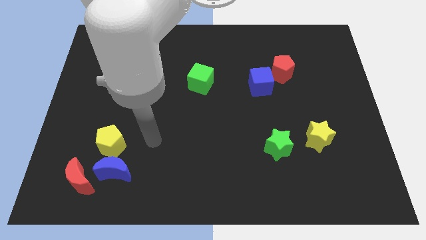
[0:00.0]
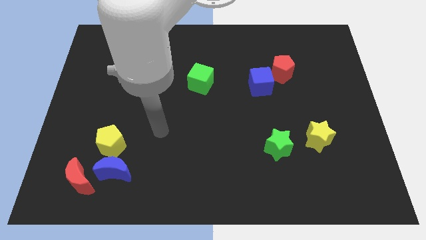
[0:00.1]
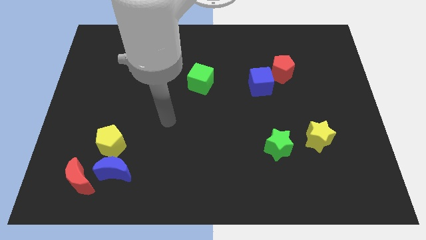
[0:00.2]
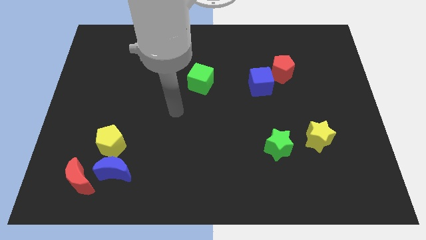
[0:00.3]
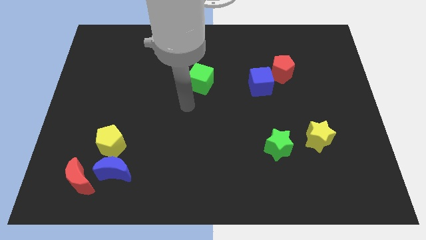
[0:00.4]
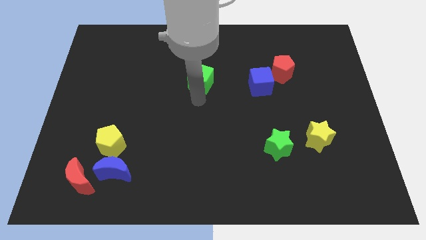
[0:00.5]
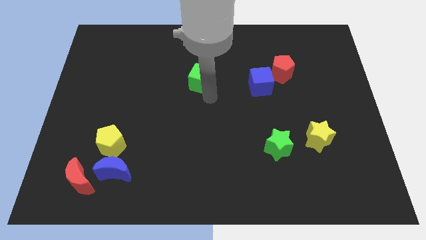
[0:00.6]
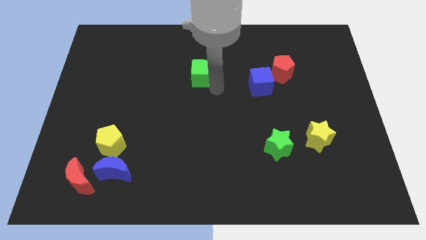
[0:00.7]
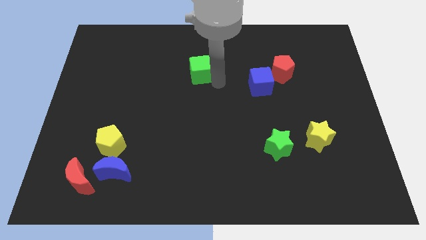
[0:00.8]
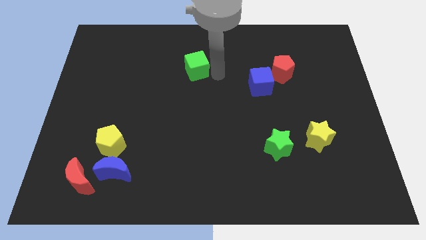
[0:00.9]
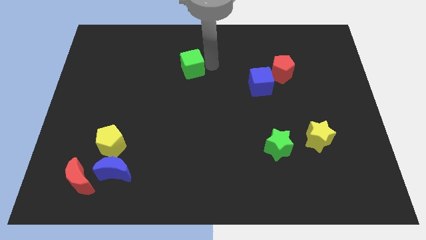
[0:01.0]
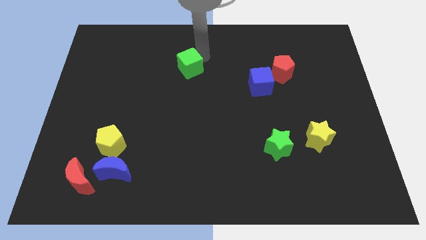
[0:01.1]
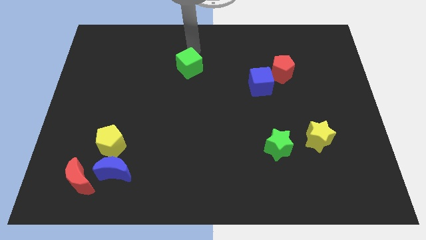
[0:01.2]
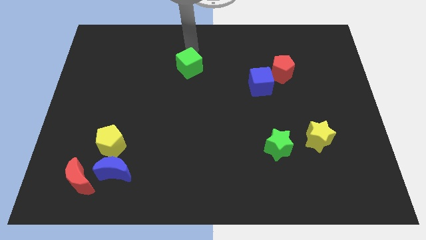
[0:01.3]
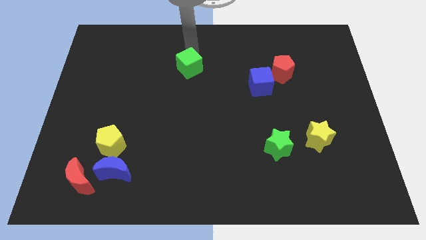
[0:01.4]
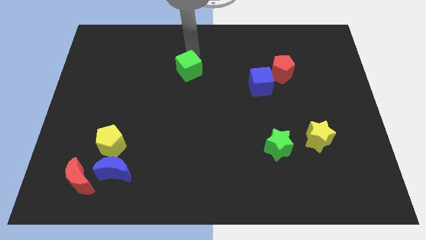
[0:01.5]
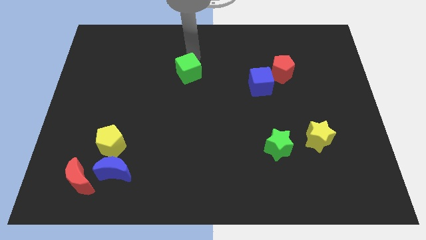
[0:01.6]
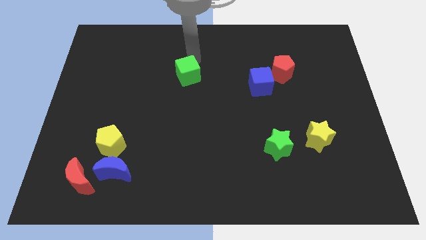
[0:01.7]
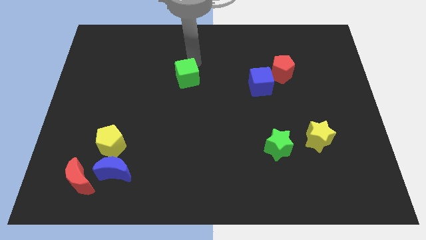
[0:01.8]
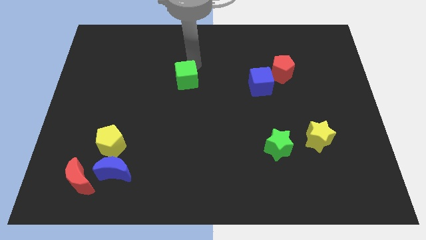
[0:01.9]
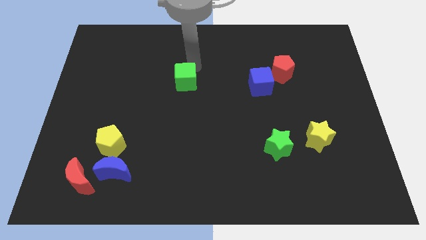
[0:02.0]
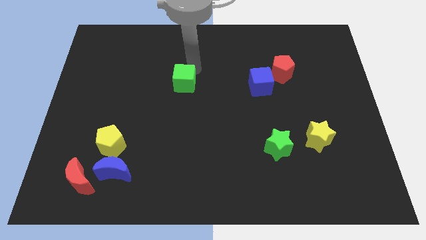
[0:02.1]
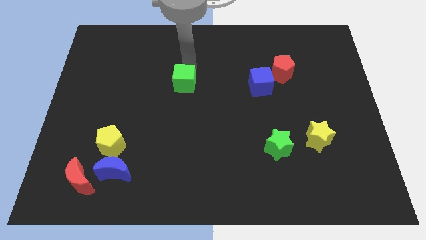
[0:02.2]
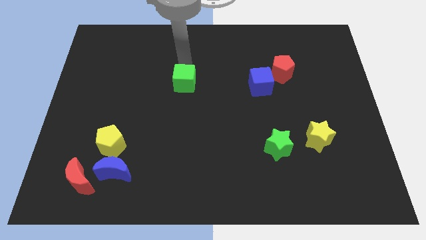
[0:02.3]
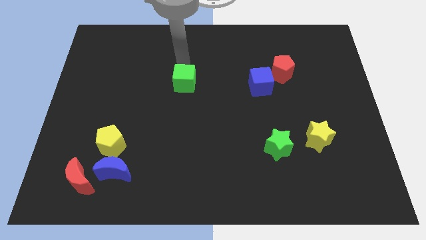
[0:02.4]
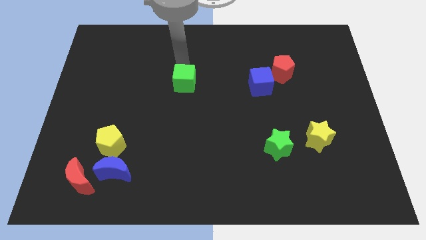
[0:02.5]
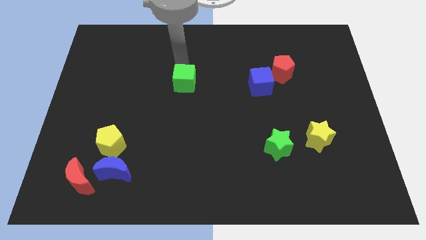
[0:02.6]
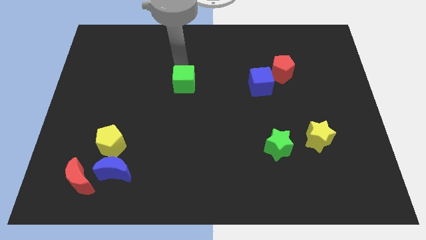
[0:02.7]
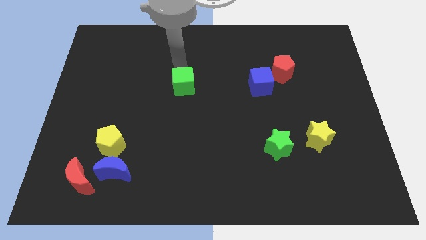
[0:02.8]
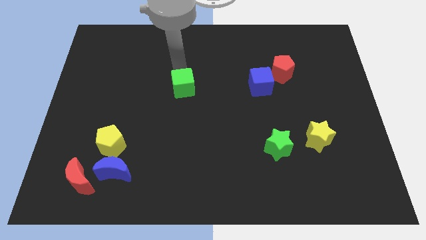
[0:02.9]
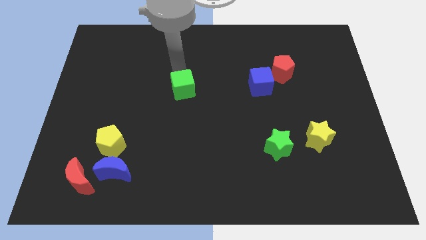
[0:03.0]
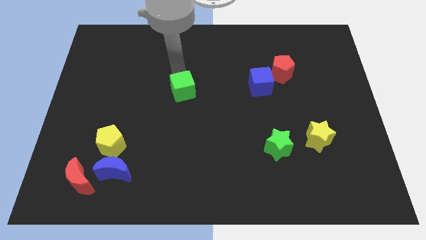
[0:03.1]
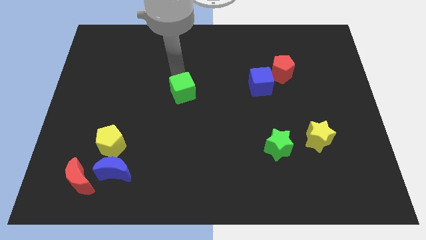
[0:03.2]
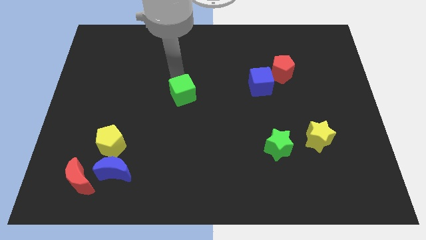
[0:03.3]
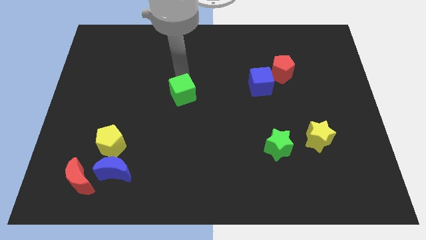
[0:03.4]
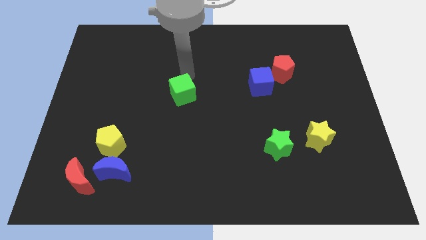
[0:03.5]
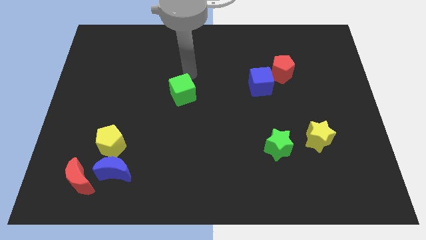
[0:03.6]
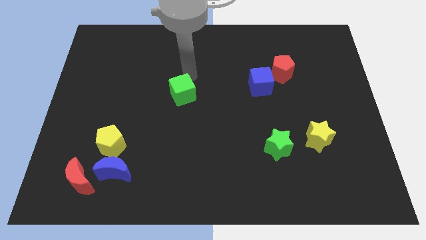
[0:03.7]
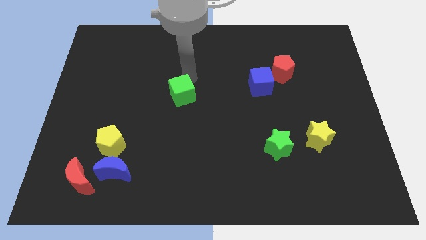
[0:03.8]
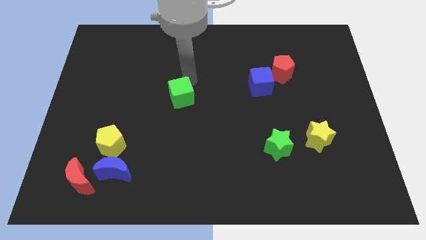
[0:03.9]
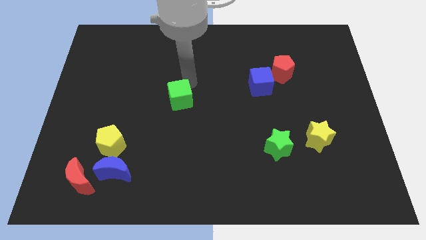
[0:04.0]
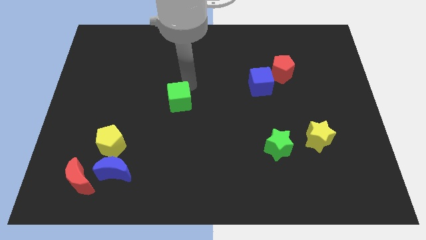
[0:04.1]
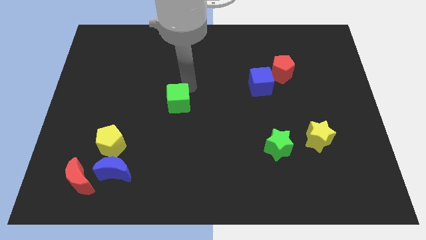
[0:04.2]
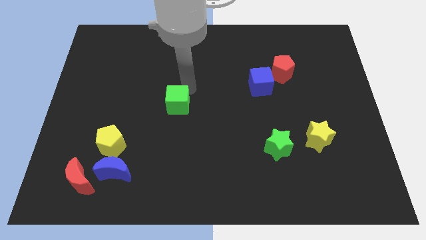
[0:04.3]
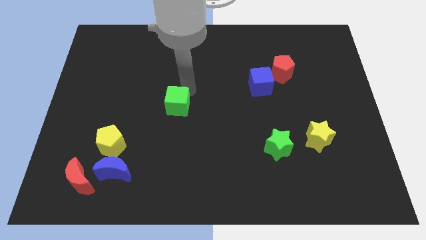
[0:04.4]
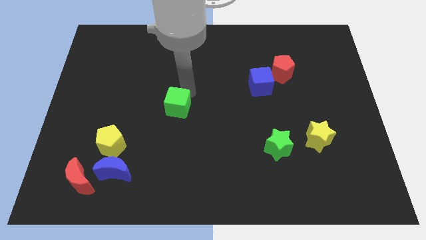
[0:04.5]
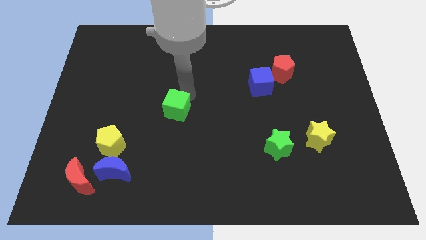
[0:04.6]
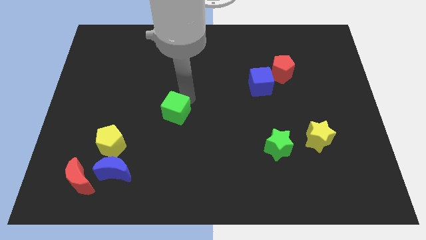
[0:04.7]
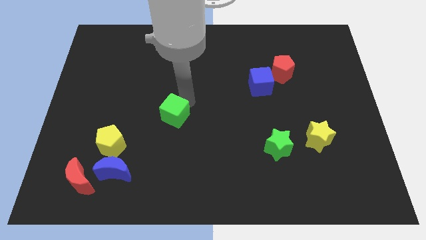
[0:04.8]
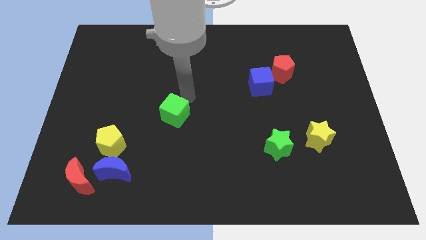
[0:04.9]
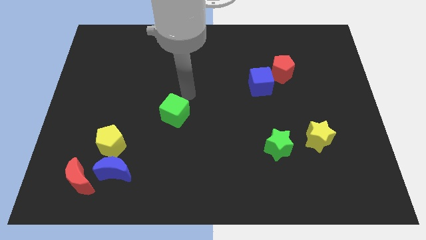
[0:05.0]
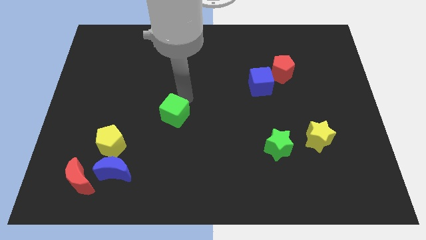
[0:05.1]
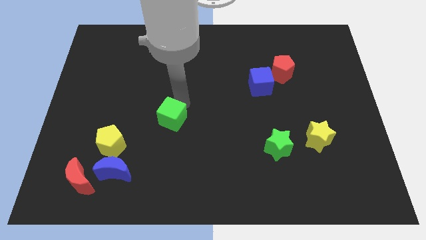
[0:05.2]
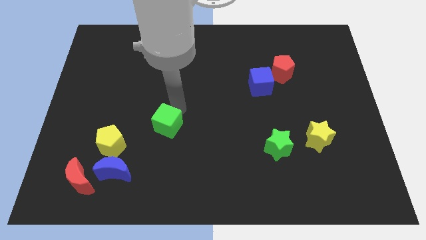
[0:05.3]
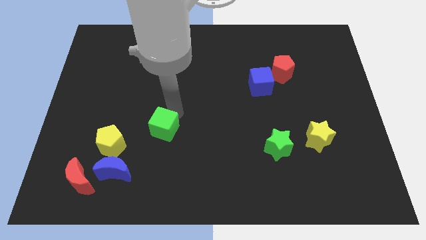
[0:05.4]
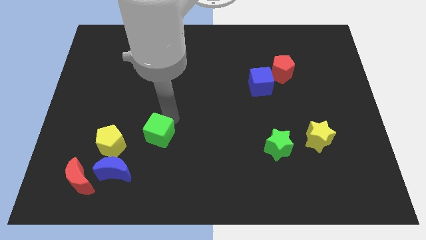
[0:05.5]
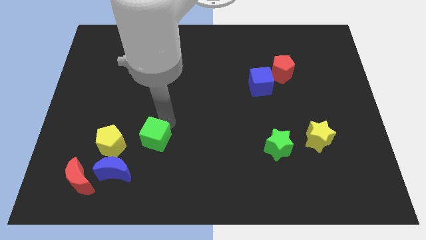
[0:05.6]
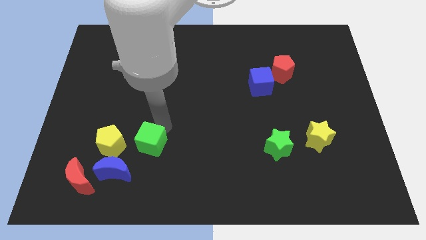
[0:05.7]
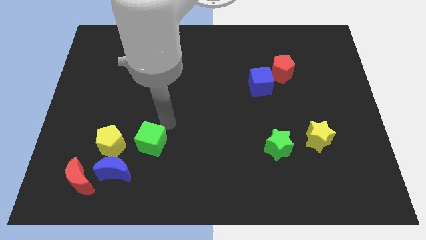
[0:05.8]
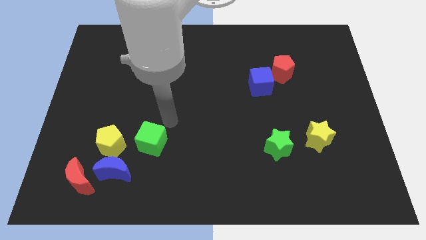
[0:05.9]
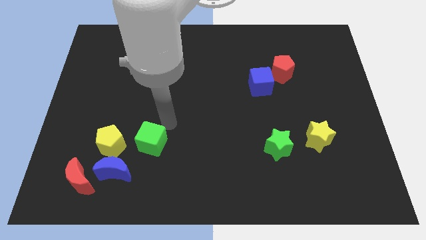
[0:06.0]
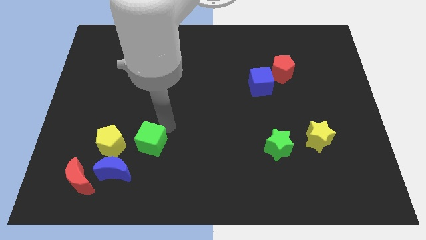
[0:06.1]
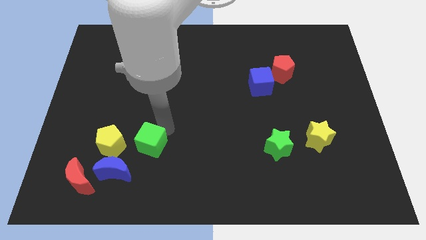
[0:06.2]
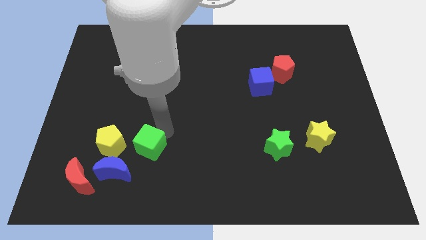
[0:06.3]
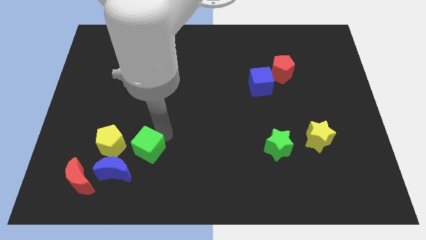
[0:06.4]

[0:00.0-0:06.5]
move the green cube to the bottom right of the yellow pentagon

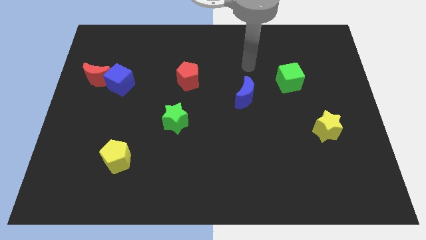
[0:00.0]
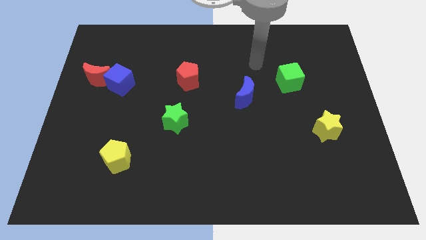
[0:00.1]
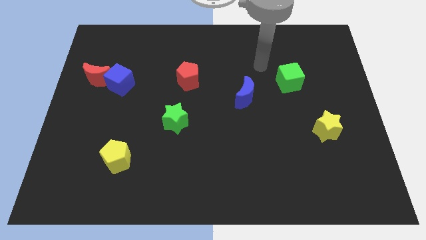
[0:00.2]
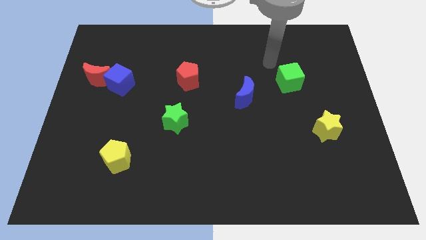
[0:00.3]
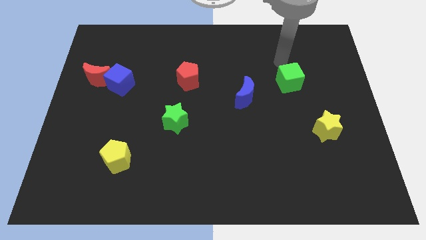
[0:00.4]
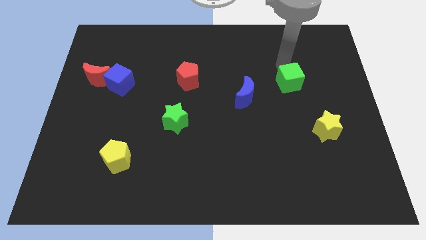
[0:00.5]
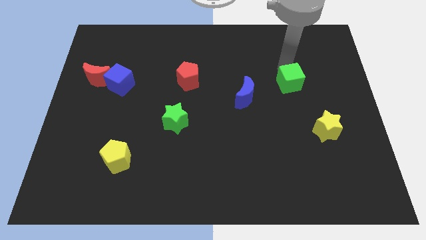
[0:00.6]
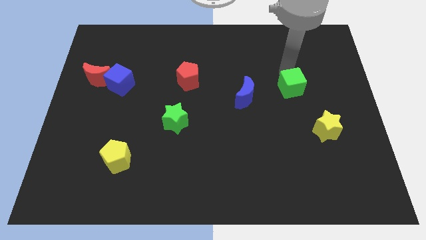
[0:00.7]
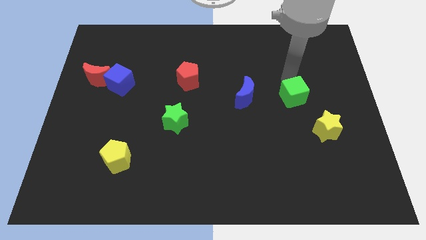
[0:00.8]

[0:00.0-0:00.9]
put the green cube to the top left of the yellow star
